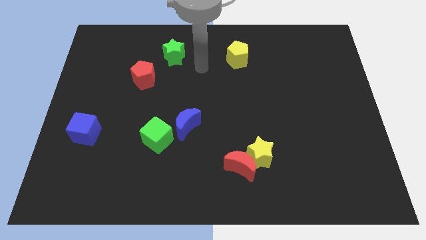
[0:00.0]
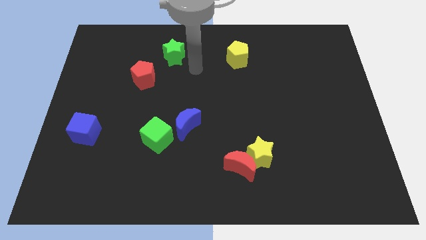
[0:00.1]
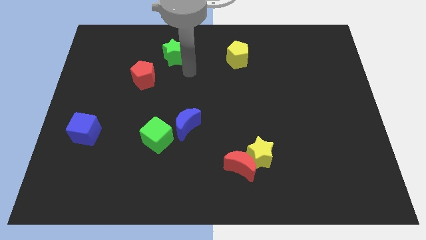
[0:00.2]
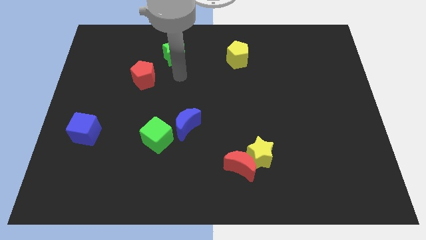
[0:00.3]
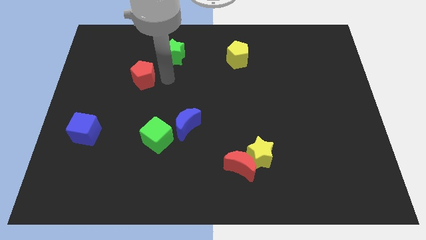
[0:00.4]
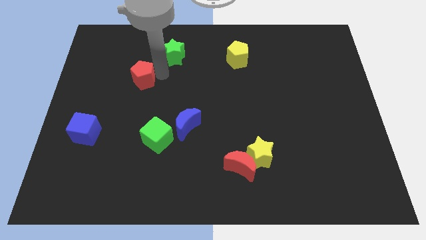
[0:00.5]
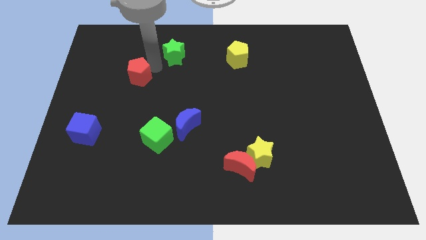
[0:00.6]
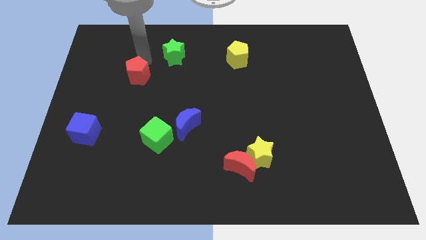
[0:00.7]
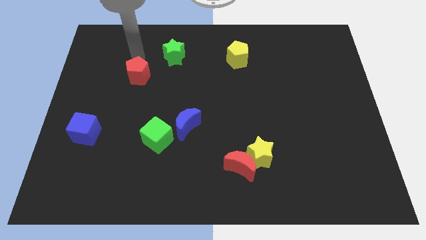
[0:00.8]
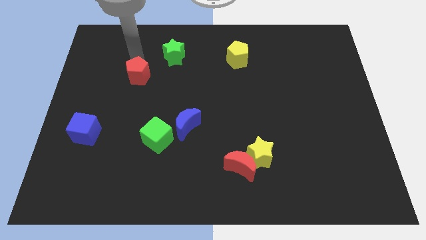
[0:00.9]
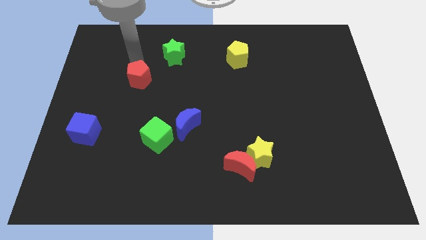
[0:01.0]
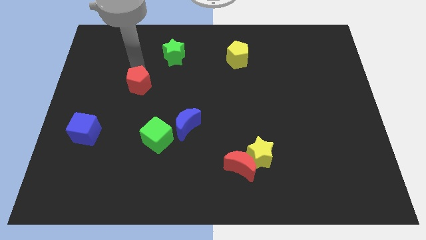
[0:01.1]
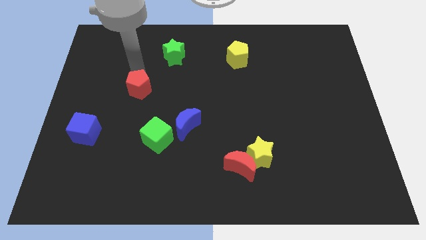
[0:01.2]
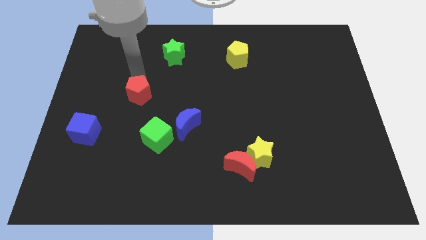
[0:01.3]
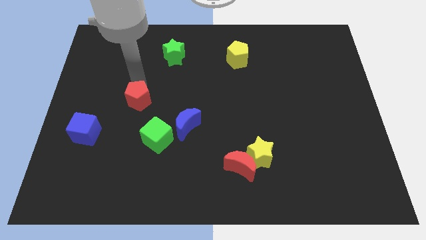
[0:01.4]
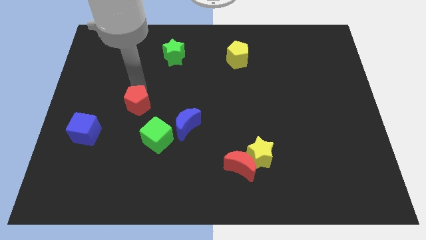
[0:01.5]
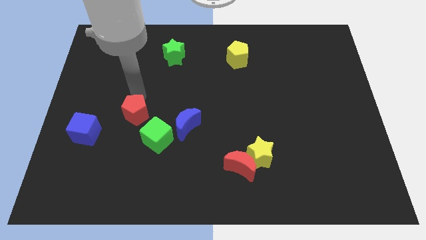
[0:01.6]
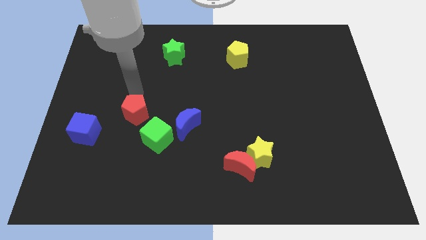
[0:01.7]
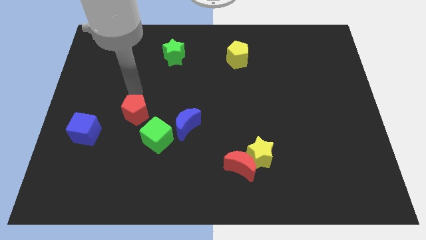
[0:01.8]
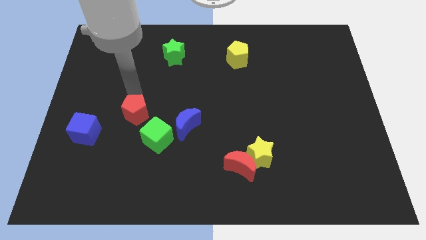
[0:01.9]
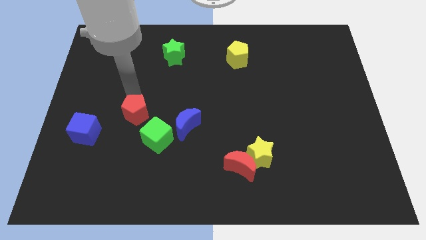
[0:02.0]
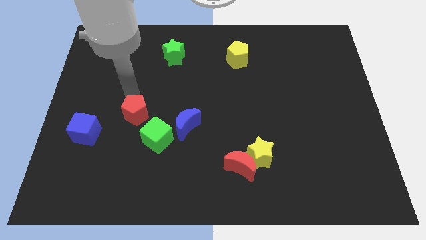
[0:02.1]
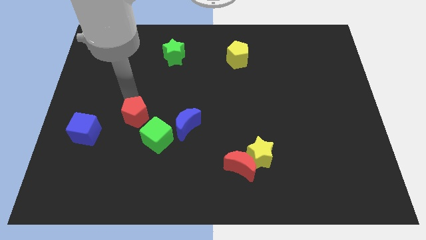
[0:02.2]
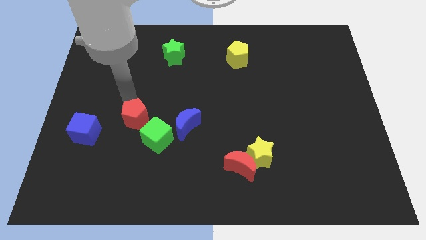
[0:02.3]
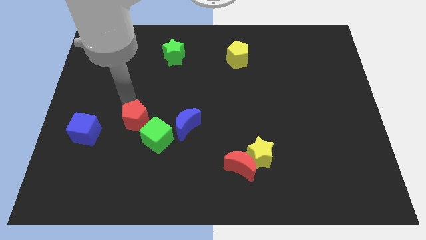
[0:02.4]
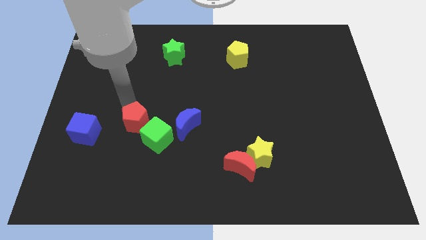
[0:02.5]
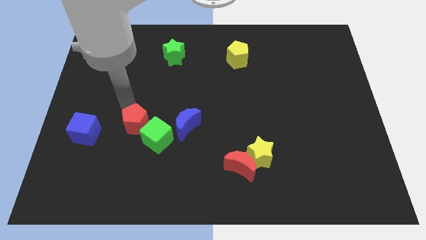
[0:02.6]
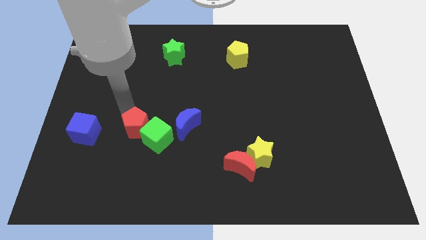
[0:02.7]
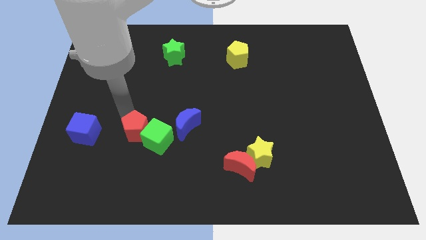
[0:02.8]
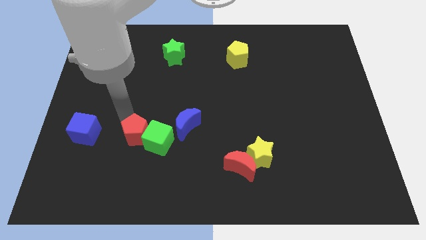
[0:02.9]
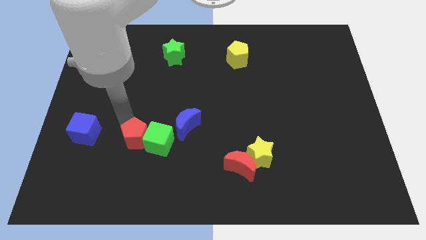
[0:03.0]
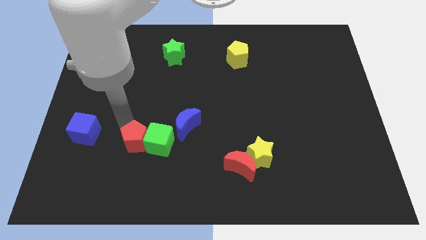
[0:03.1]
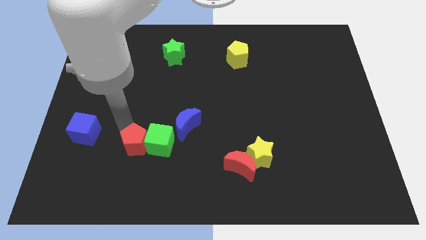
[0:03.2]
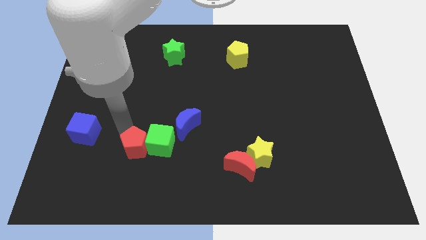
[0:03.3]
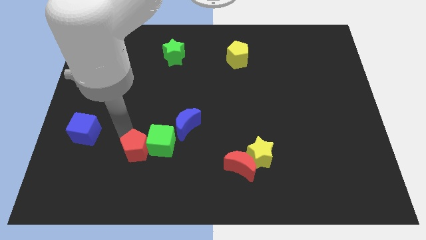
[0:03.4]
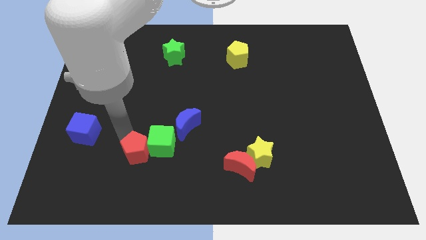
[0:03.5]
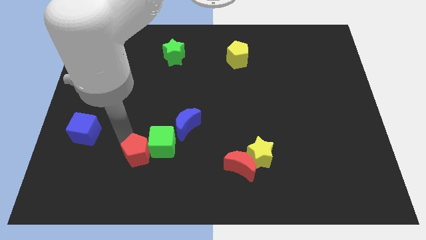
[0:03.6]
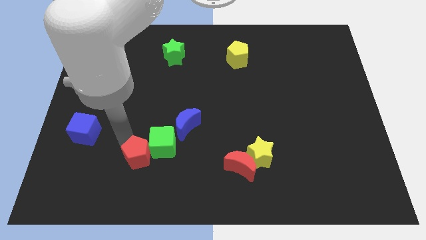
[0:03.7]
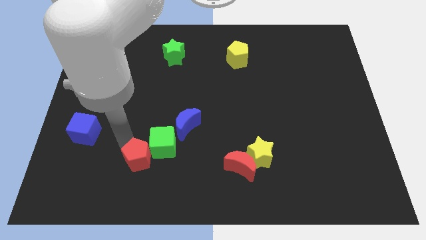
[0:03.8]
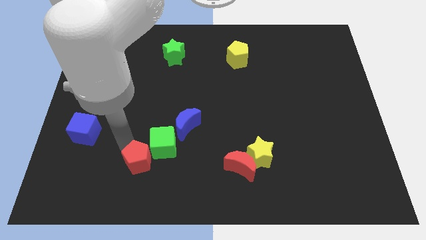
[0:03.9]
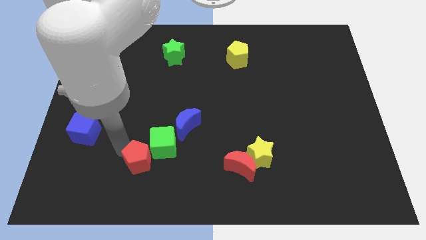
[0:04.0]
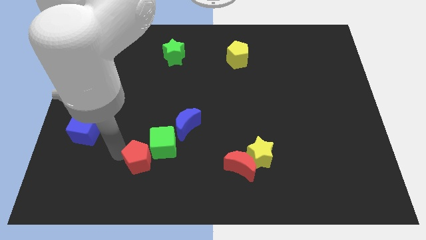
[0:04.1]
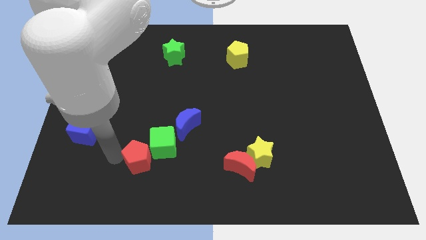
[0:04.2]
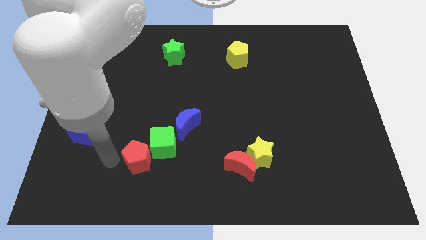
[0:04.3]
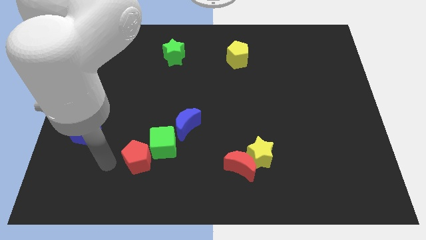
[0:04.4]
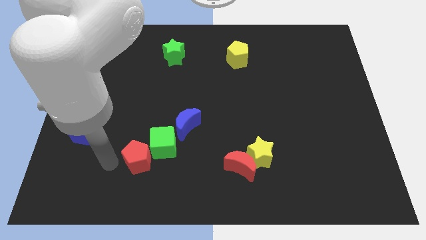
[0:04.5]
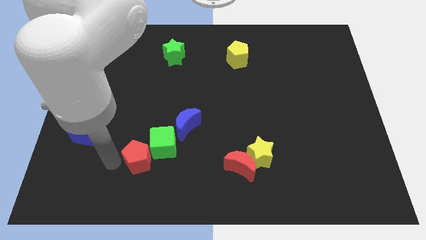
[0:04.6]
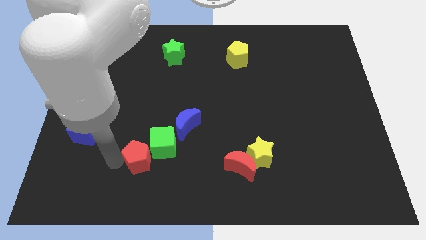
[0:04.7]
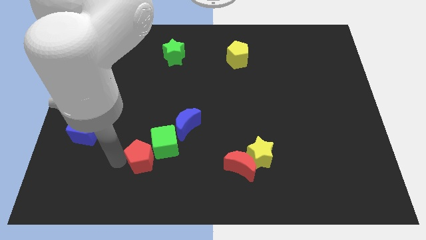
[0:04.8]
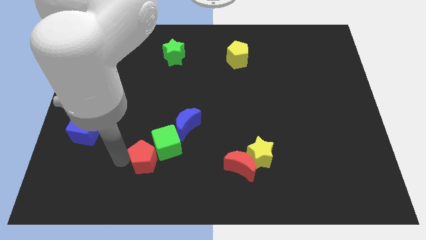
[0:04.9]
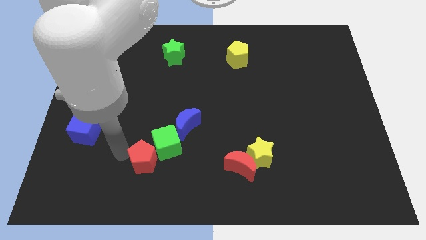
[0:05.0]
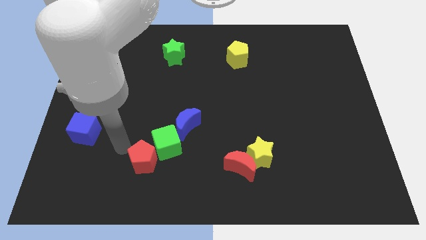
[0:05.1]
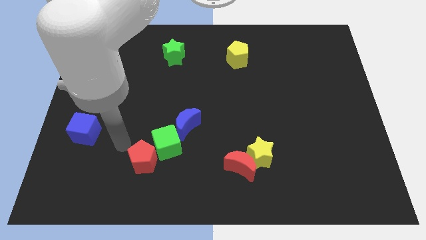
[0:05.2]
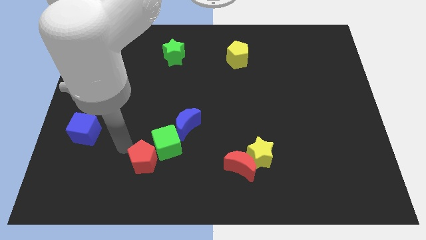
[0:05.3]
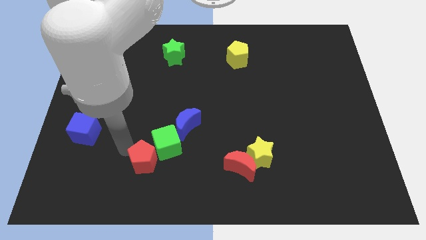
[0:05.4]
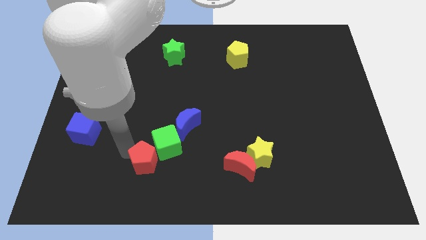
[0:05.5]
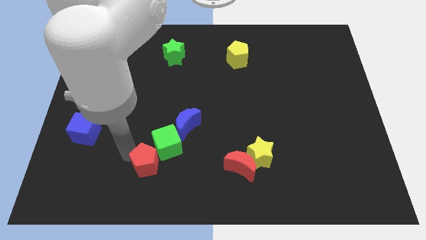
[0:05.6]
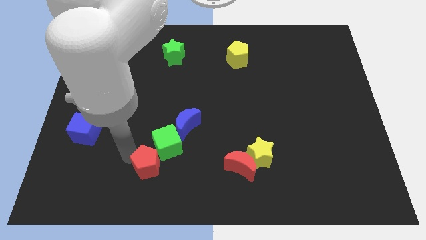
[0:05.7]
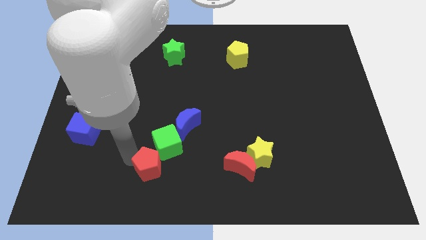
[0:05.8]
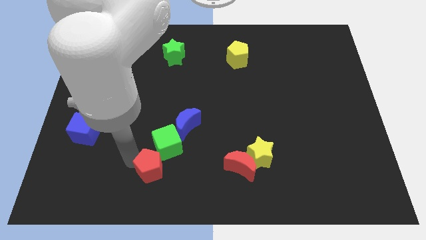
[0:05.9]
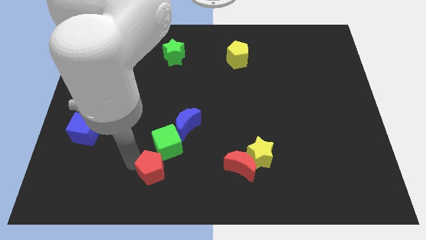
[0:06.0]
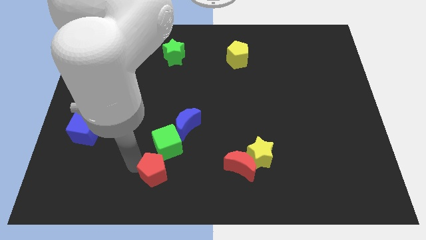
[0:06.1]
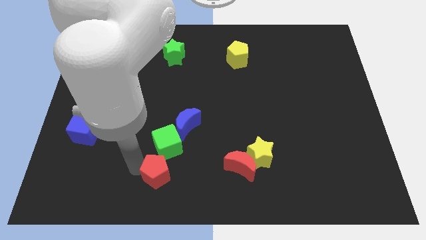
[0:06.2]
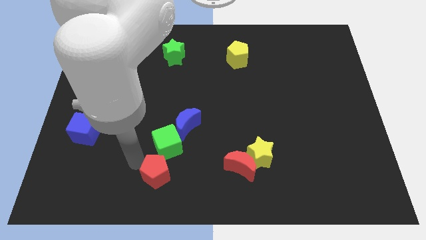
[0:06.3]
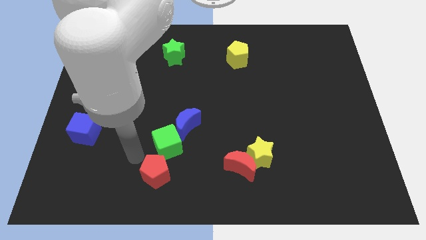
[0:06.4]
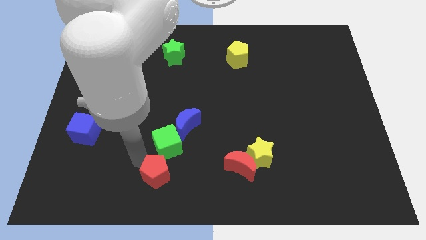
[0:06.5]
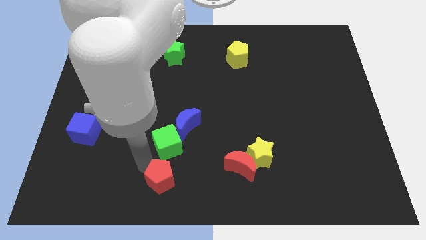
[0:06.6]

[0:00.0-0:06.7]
push the red pentagon to the bottom side

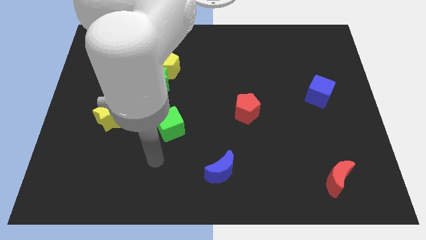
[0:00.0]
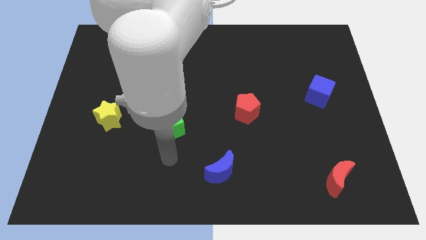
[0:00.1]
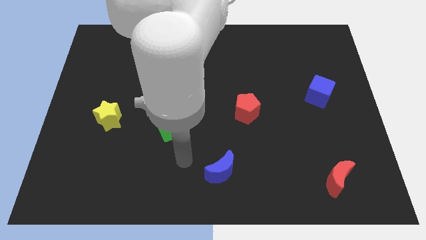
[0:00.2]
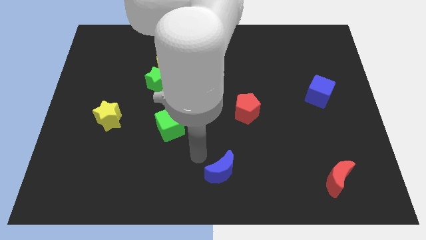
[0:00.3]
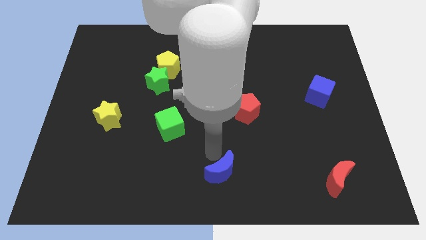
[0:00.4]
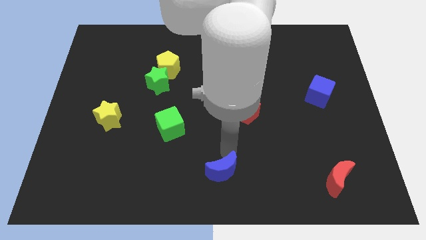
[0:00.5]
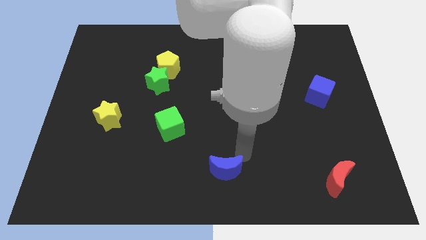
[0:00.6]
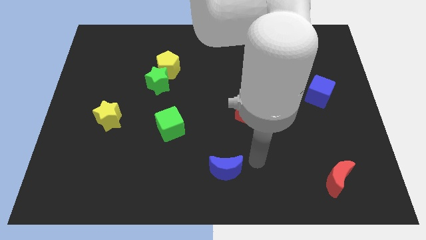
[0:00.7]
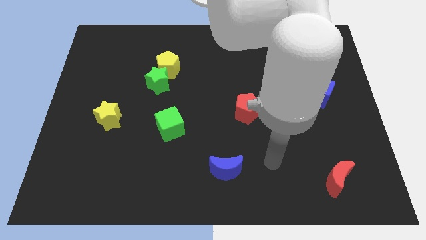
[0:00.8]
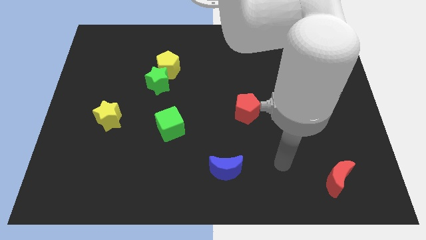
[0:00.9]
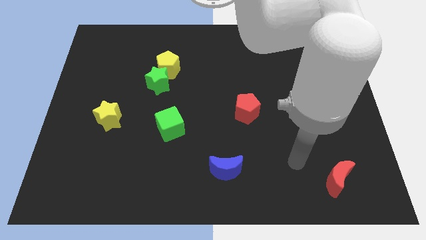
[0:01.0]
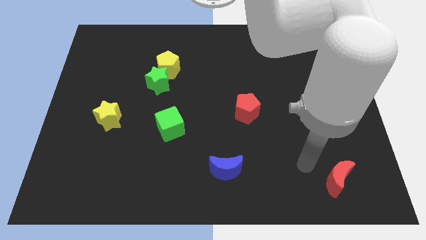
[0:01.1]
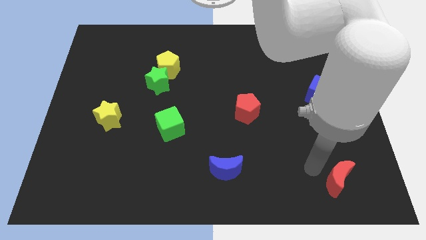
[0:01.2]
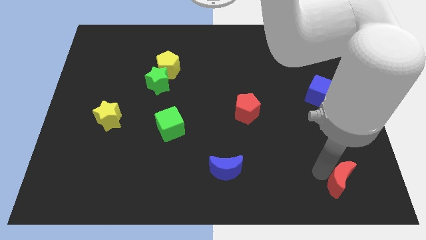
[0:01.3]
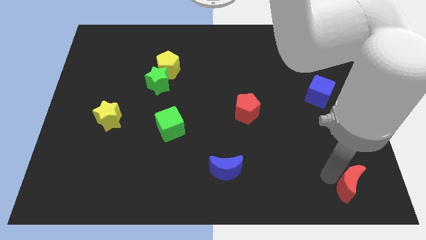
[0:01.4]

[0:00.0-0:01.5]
push the red moon to the bottom right of the board
